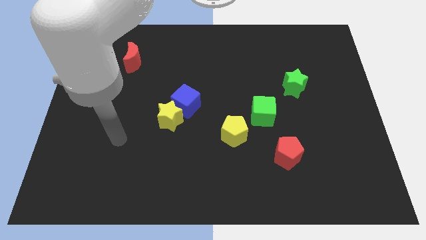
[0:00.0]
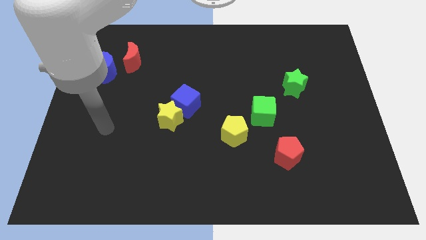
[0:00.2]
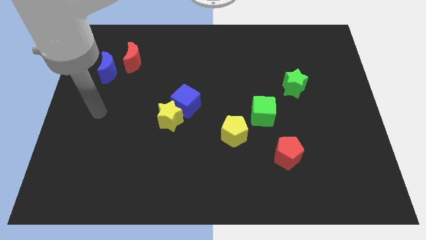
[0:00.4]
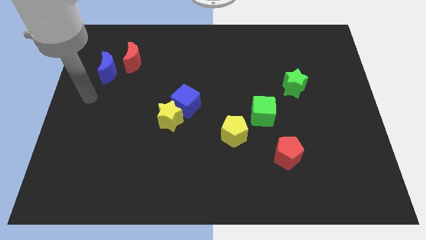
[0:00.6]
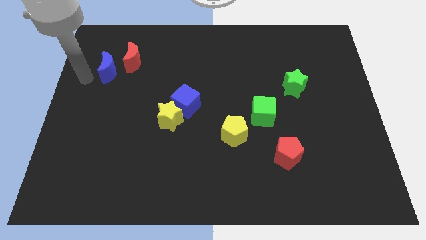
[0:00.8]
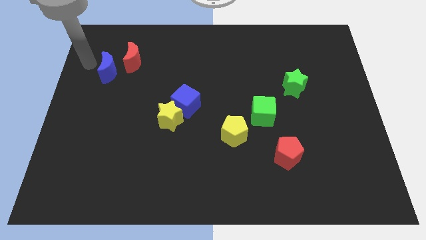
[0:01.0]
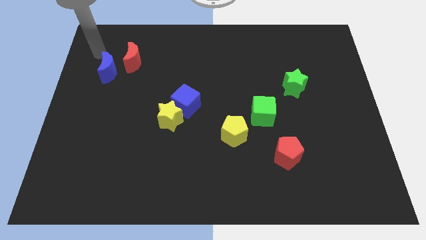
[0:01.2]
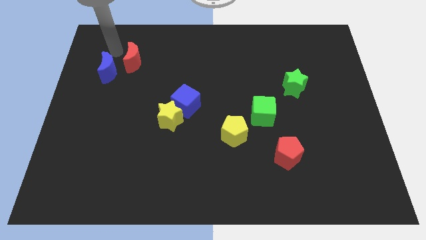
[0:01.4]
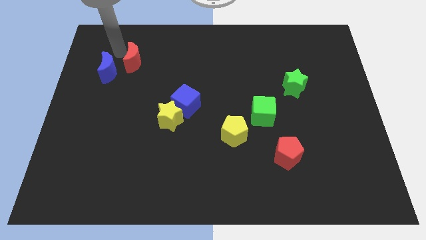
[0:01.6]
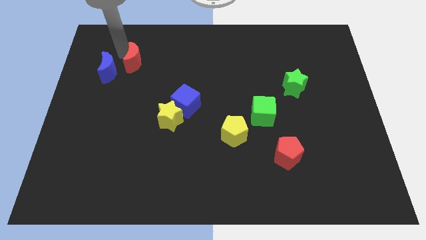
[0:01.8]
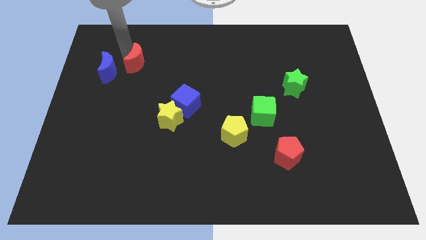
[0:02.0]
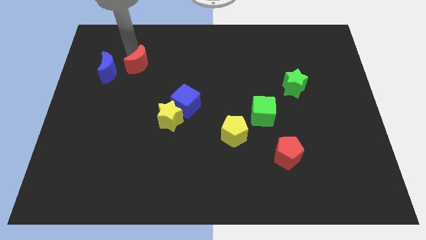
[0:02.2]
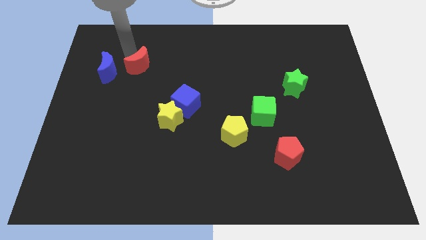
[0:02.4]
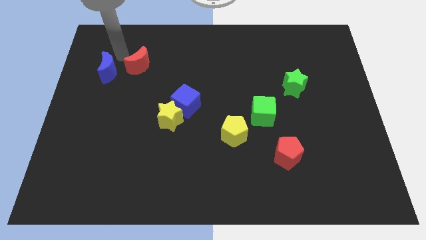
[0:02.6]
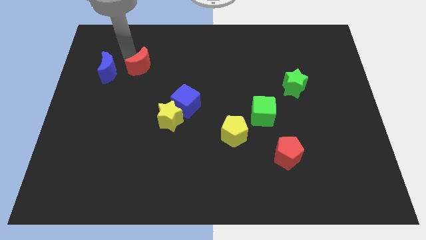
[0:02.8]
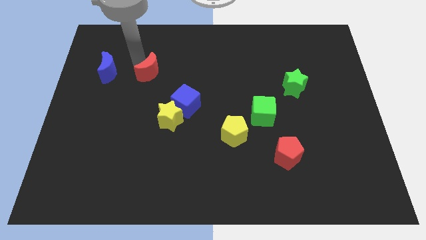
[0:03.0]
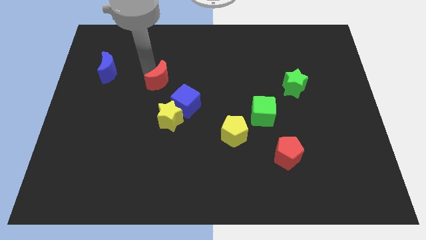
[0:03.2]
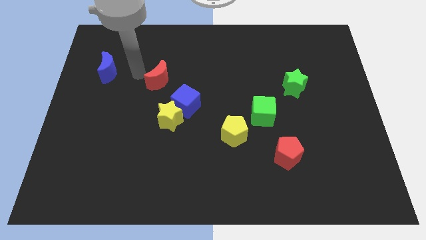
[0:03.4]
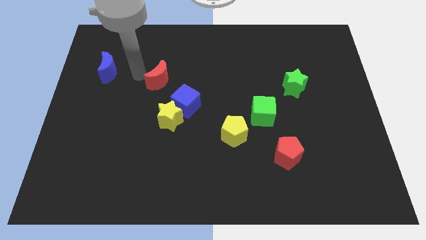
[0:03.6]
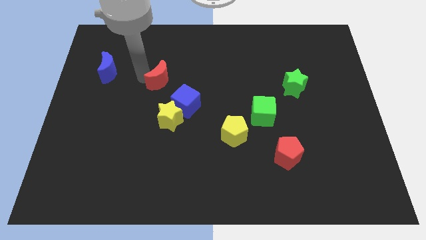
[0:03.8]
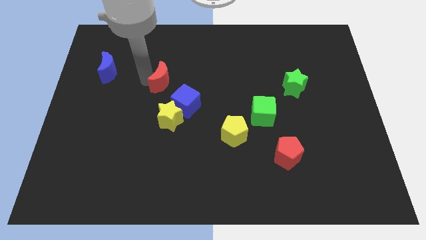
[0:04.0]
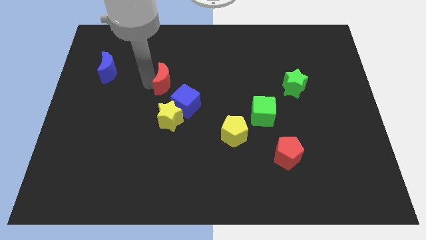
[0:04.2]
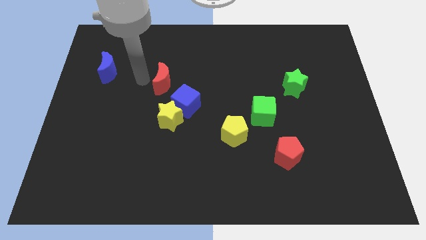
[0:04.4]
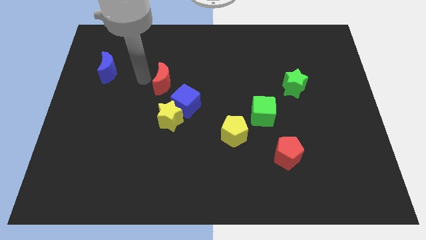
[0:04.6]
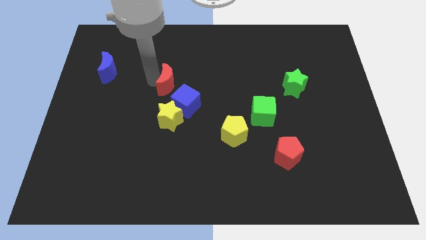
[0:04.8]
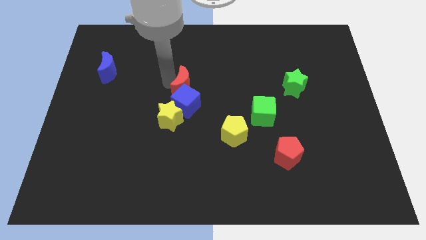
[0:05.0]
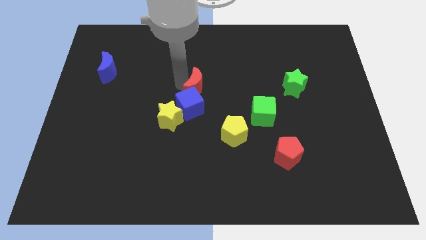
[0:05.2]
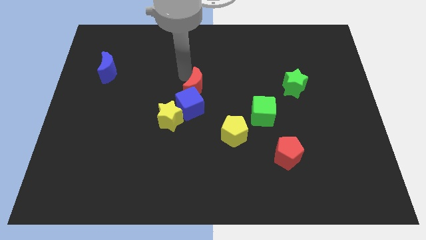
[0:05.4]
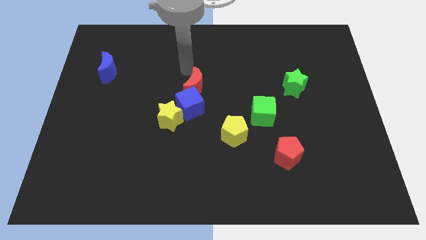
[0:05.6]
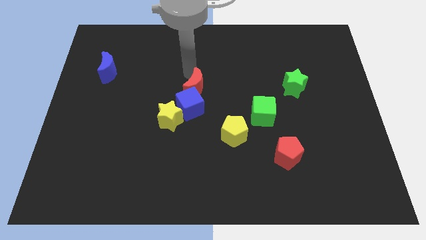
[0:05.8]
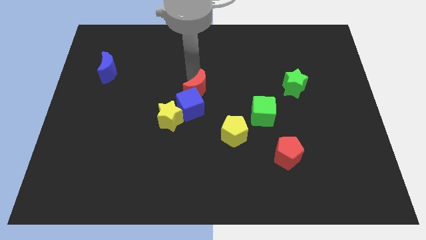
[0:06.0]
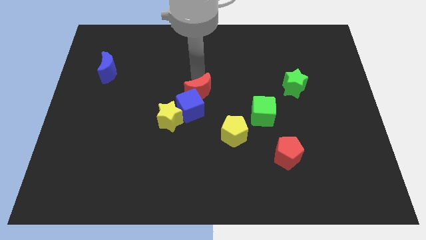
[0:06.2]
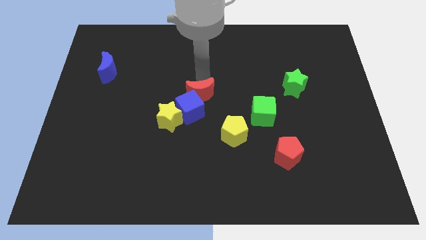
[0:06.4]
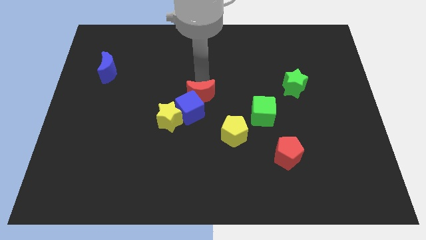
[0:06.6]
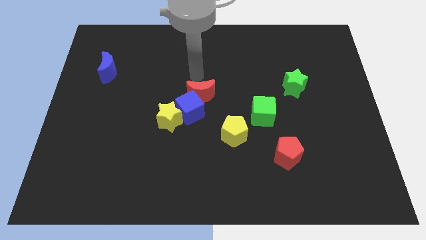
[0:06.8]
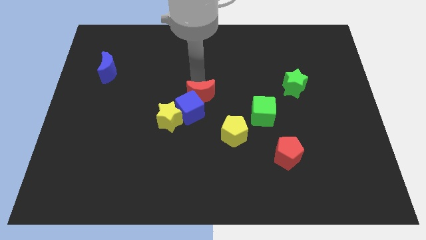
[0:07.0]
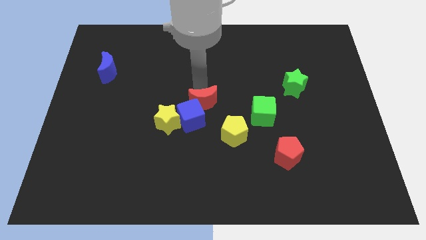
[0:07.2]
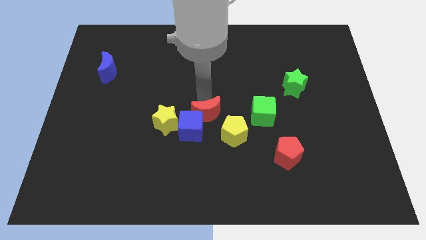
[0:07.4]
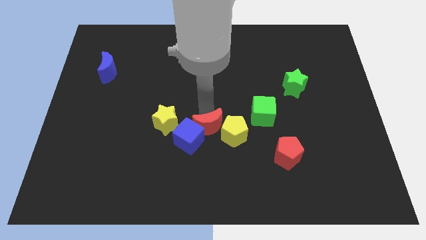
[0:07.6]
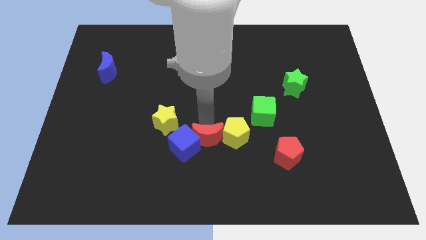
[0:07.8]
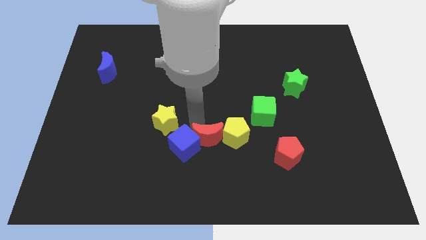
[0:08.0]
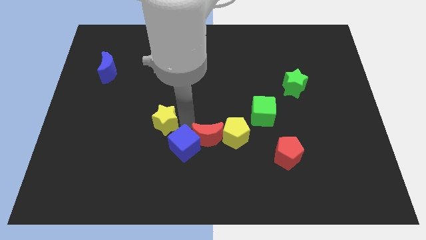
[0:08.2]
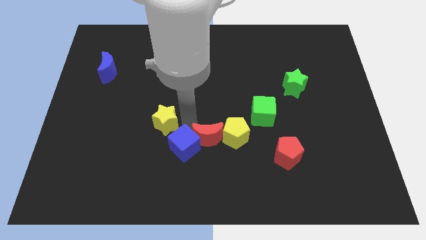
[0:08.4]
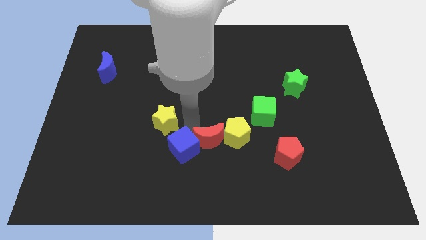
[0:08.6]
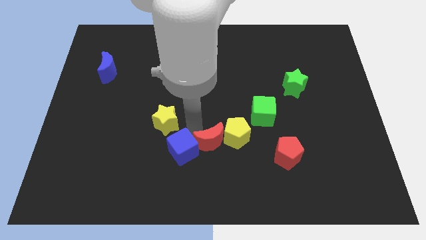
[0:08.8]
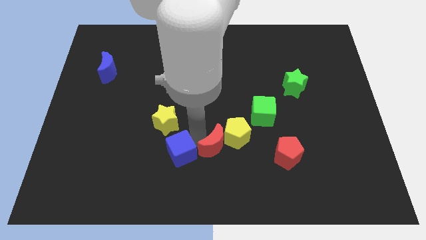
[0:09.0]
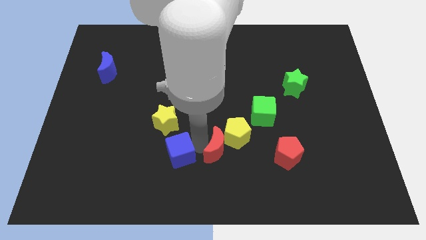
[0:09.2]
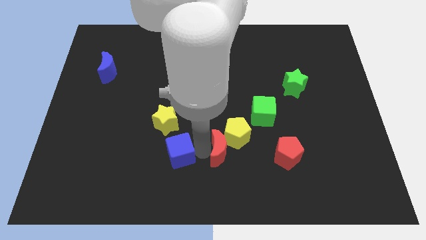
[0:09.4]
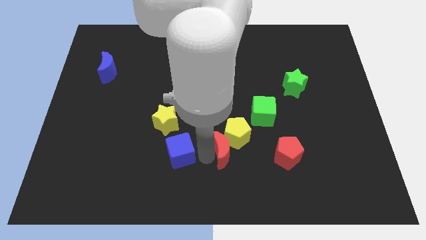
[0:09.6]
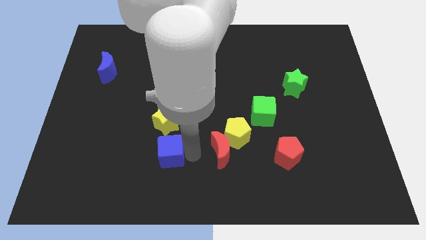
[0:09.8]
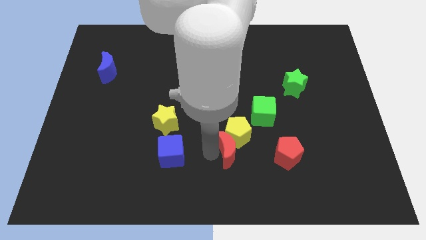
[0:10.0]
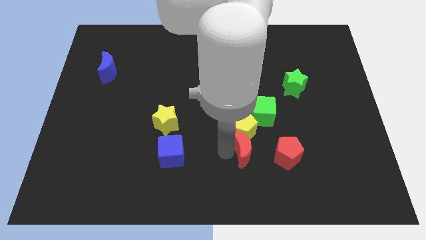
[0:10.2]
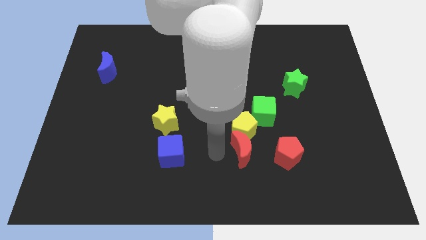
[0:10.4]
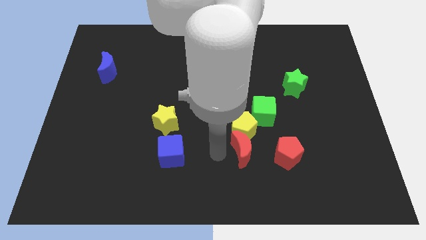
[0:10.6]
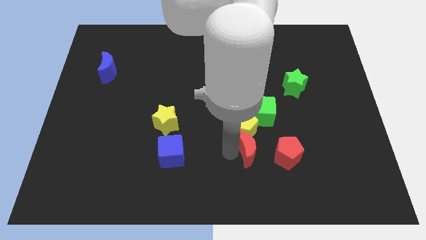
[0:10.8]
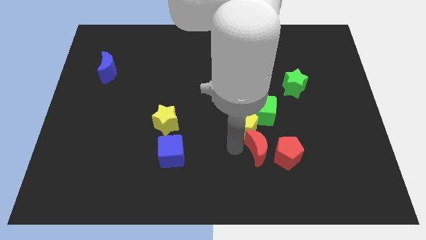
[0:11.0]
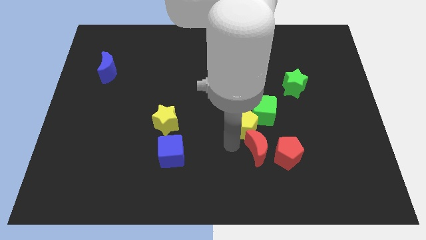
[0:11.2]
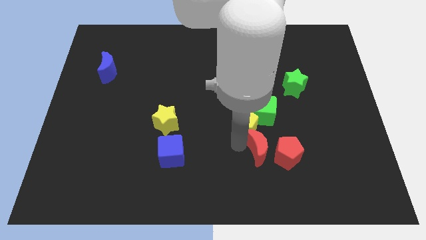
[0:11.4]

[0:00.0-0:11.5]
slide the red moon next to the red pentagon

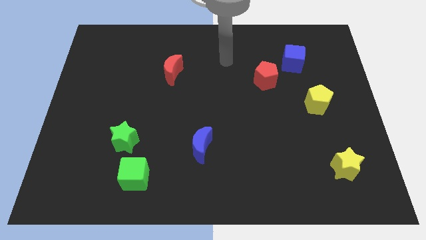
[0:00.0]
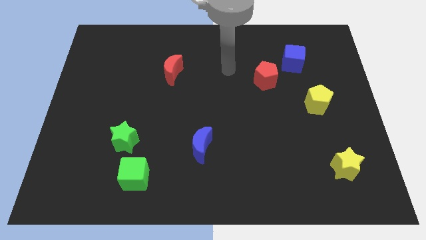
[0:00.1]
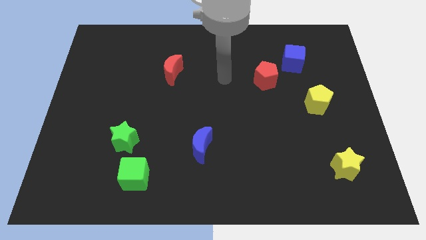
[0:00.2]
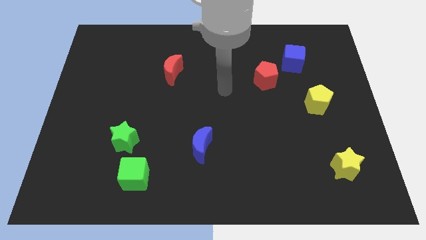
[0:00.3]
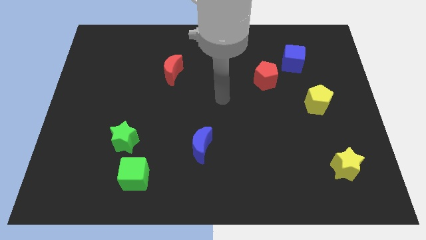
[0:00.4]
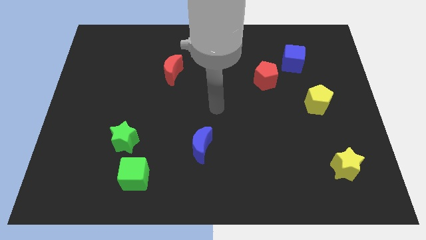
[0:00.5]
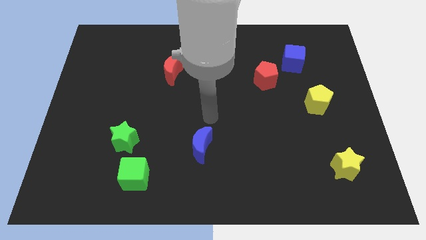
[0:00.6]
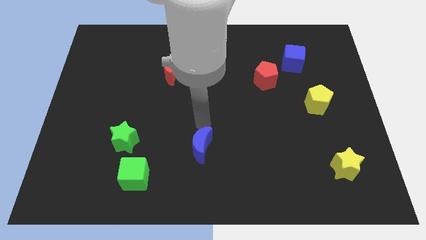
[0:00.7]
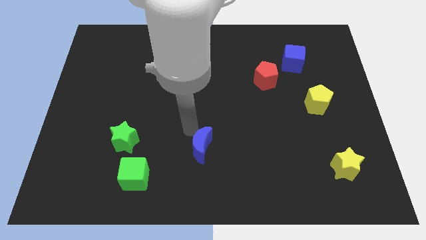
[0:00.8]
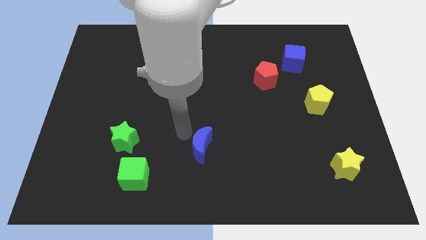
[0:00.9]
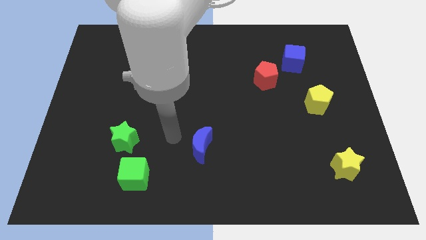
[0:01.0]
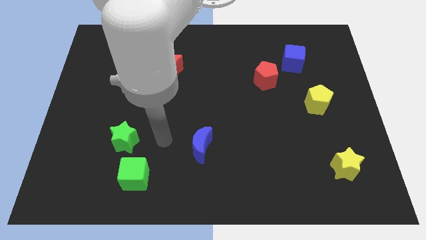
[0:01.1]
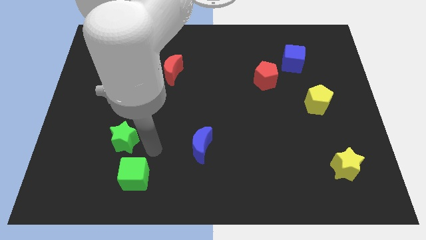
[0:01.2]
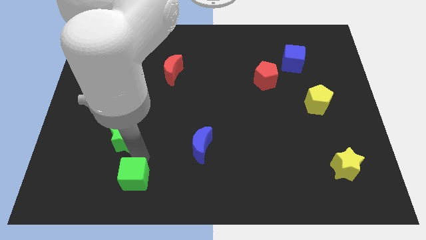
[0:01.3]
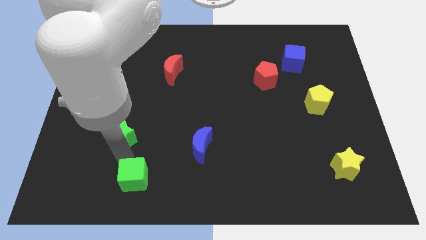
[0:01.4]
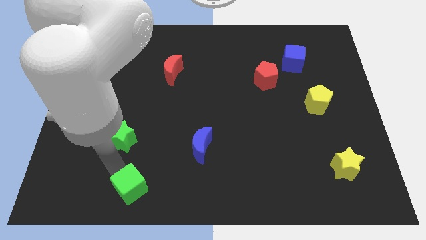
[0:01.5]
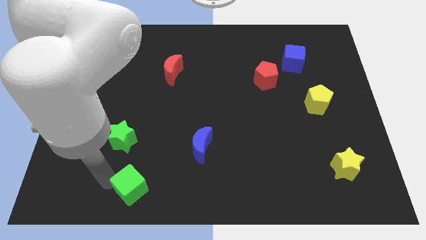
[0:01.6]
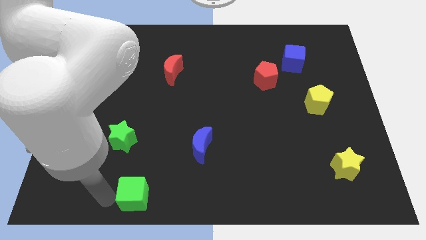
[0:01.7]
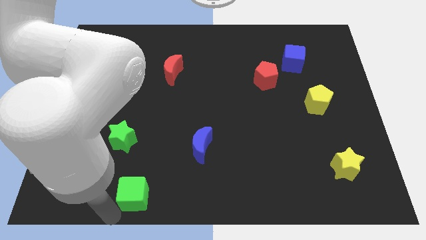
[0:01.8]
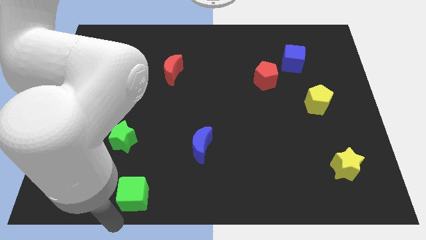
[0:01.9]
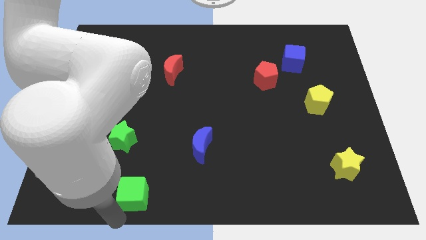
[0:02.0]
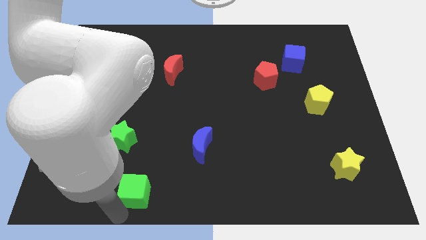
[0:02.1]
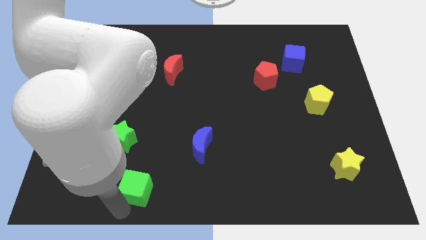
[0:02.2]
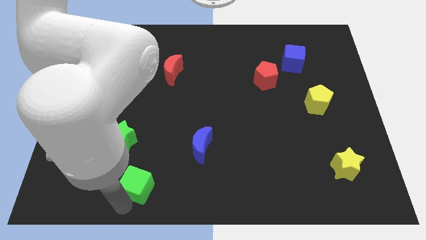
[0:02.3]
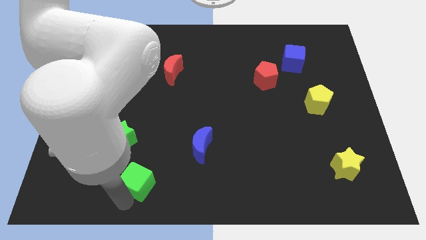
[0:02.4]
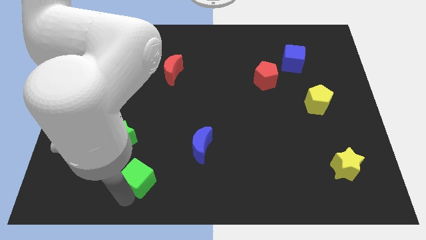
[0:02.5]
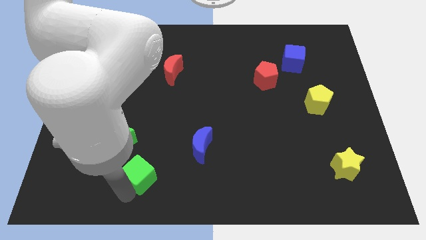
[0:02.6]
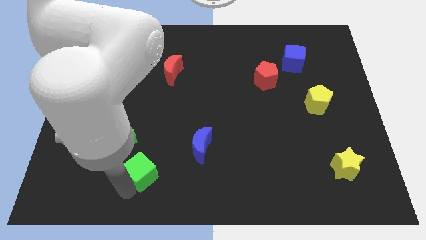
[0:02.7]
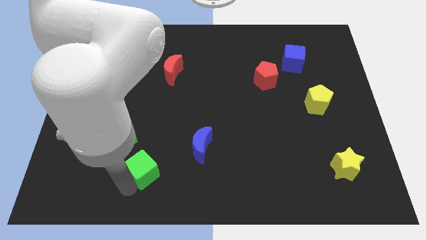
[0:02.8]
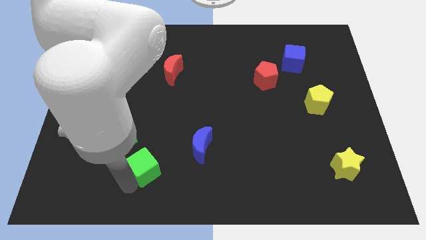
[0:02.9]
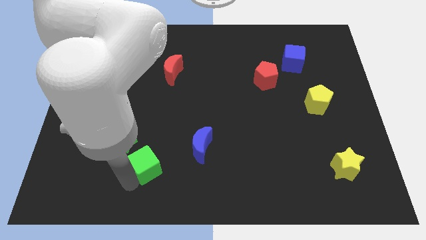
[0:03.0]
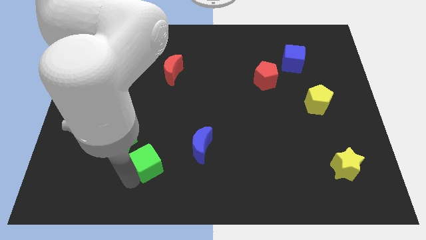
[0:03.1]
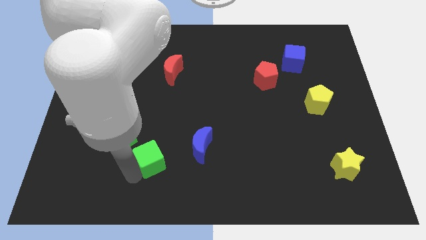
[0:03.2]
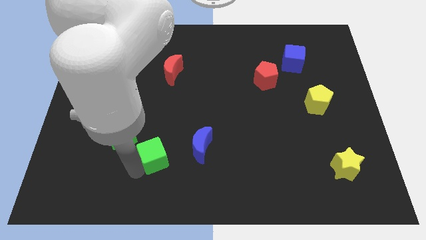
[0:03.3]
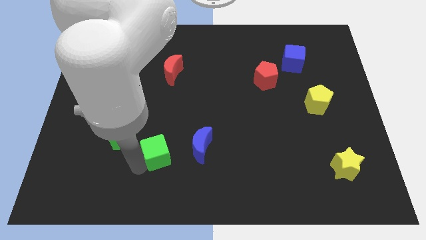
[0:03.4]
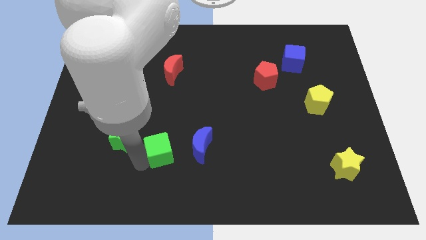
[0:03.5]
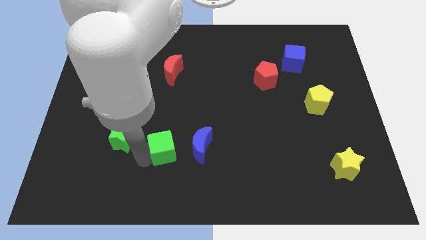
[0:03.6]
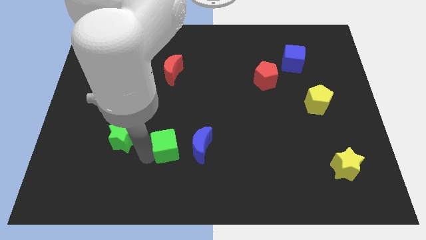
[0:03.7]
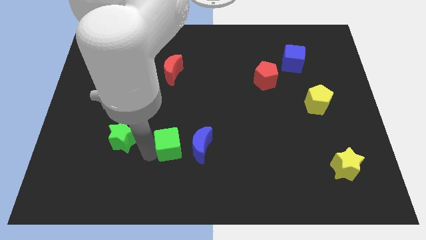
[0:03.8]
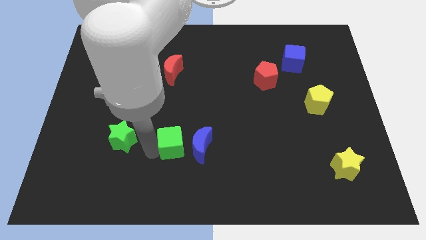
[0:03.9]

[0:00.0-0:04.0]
slide the green cube to the blue moon
